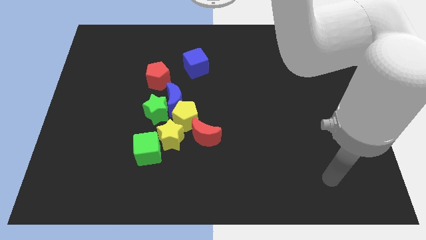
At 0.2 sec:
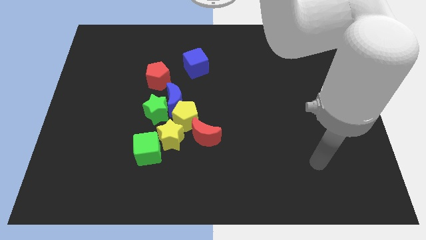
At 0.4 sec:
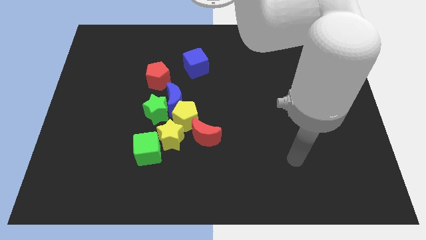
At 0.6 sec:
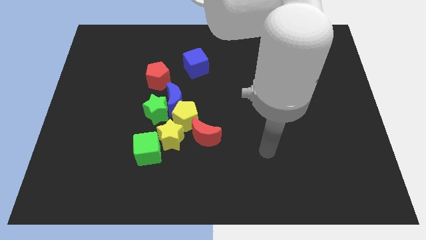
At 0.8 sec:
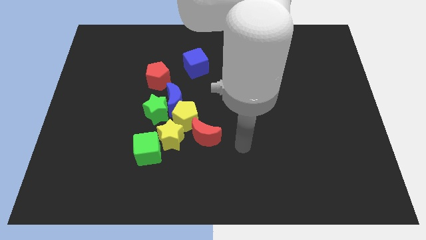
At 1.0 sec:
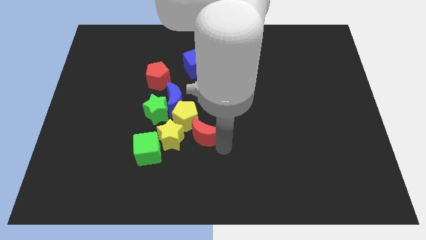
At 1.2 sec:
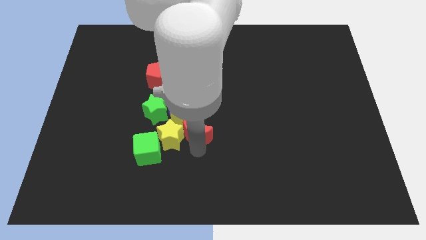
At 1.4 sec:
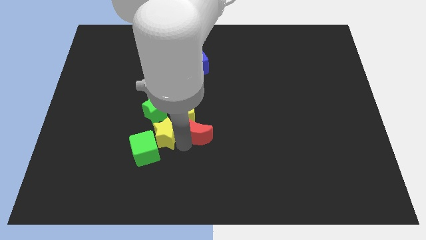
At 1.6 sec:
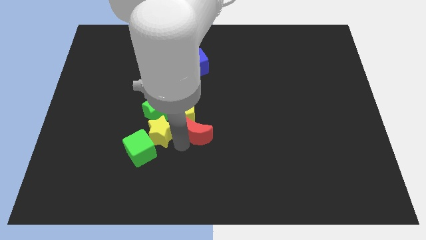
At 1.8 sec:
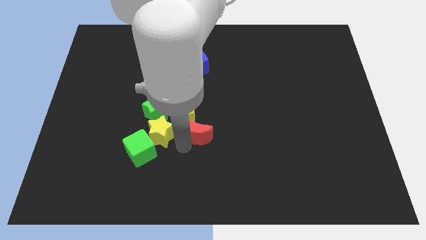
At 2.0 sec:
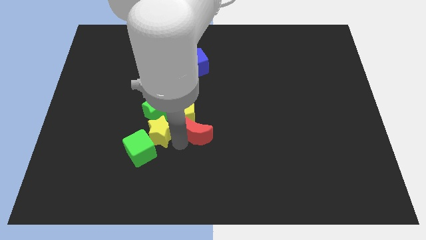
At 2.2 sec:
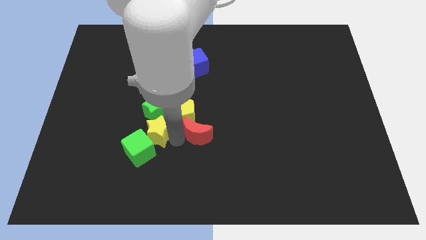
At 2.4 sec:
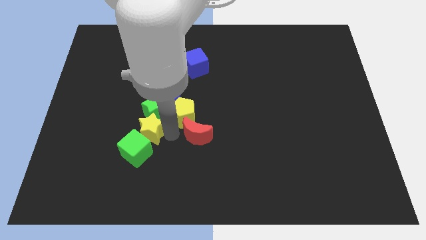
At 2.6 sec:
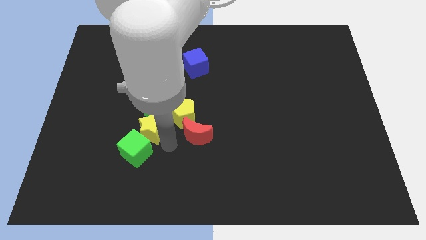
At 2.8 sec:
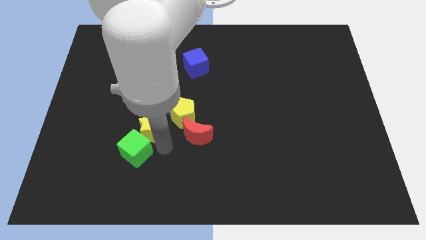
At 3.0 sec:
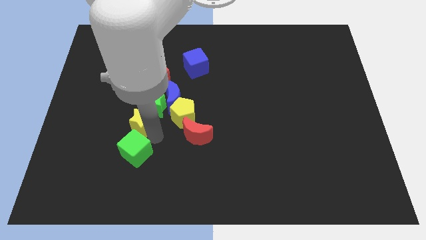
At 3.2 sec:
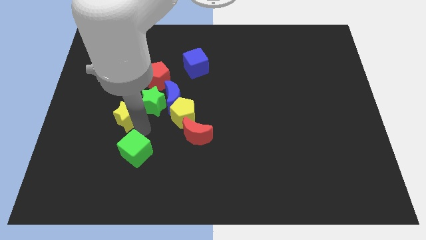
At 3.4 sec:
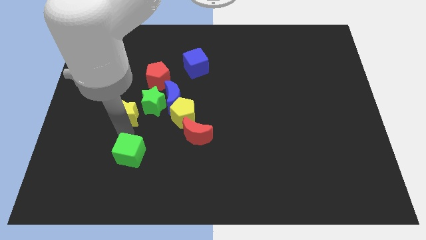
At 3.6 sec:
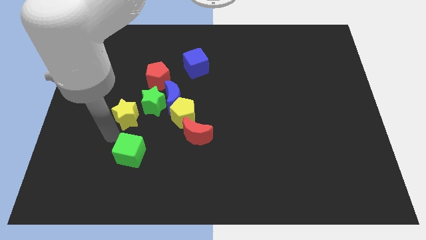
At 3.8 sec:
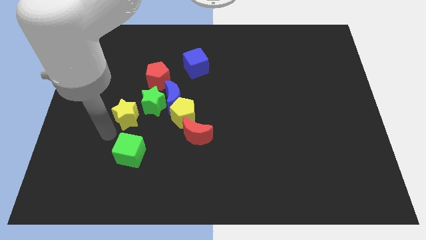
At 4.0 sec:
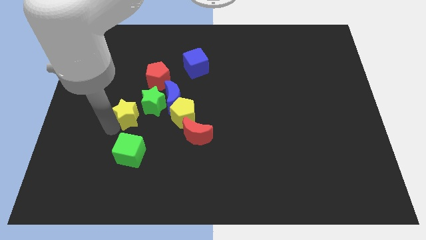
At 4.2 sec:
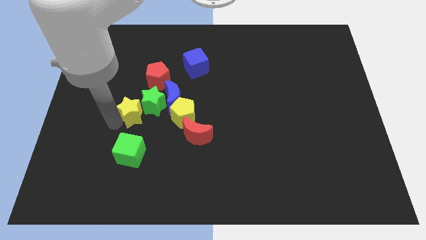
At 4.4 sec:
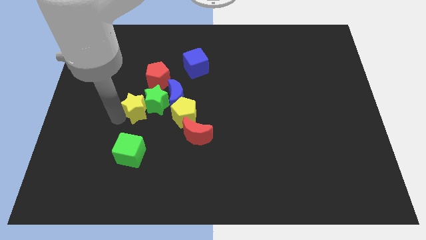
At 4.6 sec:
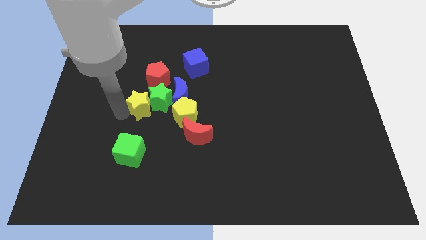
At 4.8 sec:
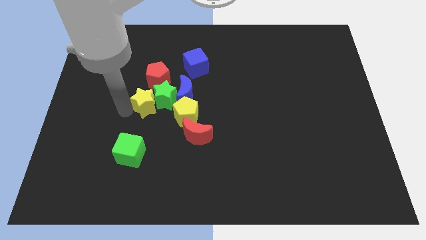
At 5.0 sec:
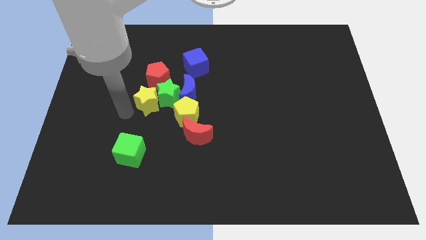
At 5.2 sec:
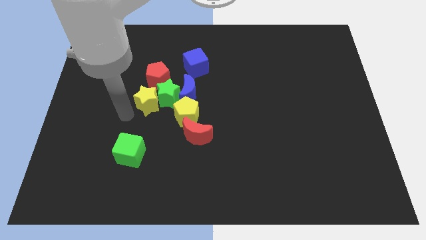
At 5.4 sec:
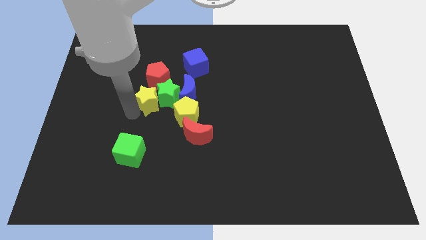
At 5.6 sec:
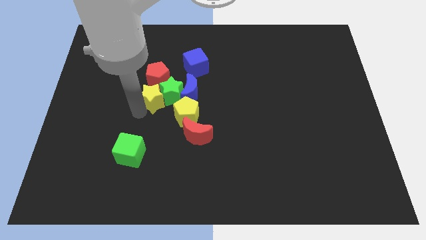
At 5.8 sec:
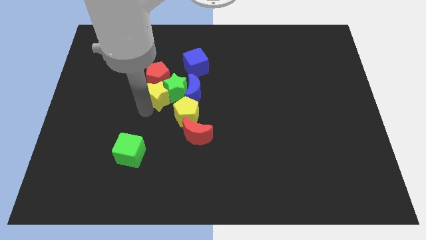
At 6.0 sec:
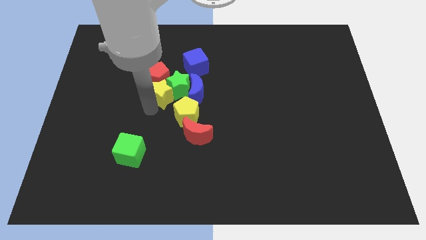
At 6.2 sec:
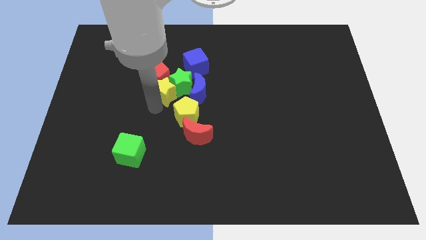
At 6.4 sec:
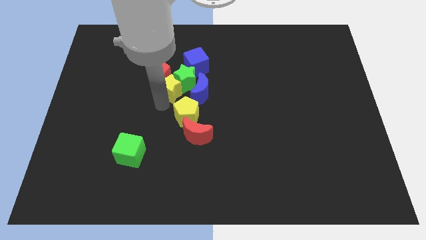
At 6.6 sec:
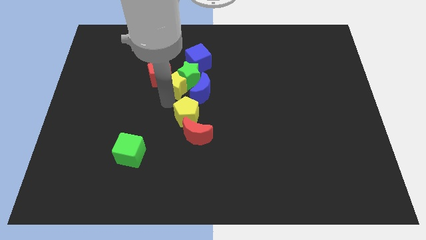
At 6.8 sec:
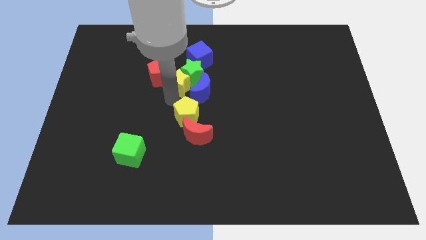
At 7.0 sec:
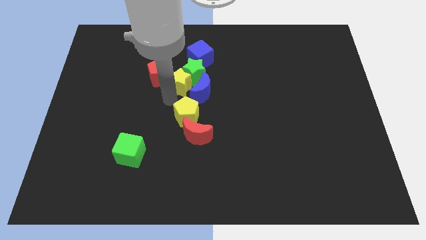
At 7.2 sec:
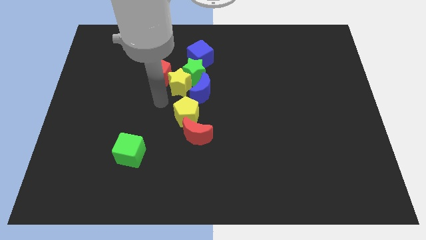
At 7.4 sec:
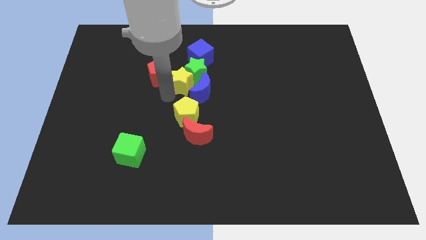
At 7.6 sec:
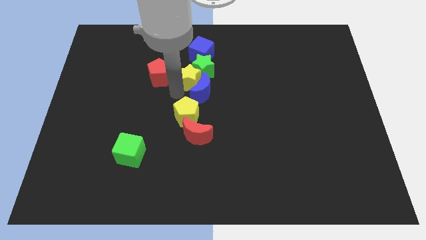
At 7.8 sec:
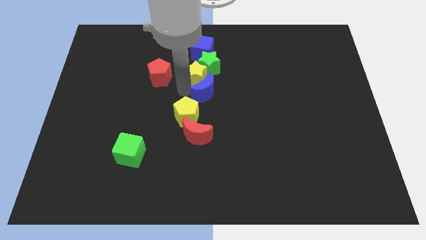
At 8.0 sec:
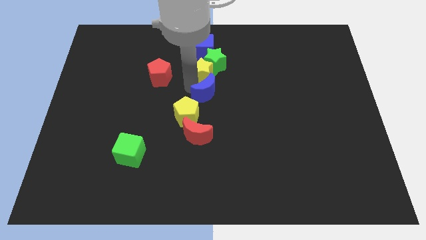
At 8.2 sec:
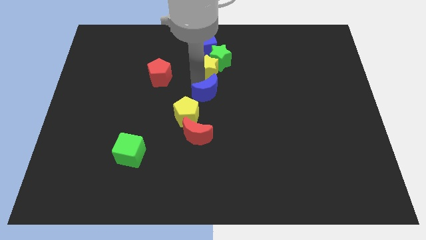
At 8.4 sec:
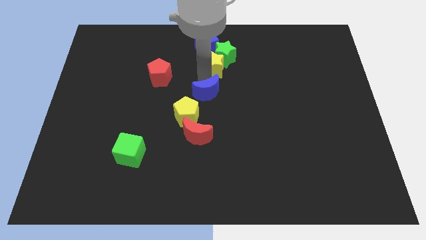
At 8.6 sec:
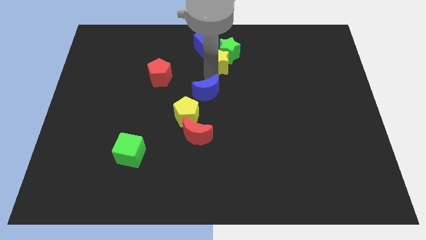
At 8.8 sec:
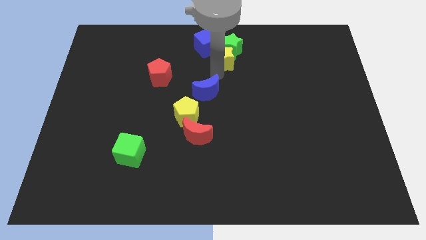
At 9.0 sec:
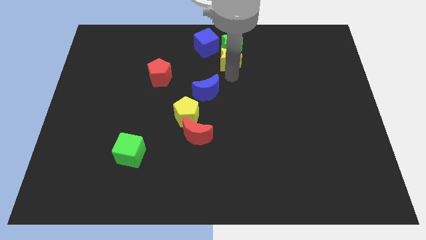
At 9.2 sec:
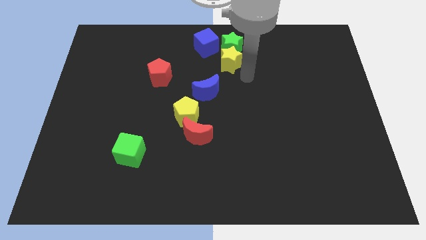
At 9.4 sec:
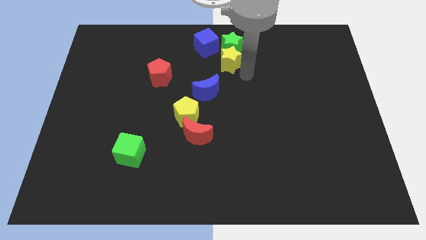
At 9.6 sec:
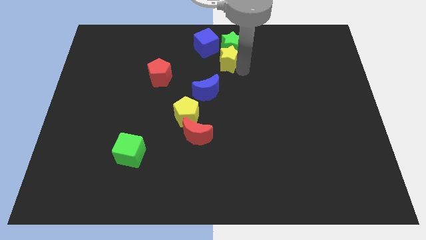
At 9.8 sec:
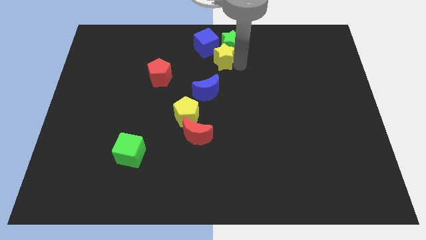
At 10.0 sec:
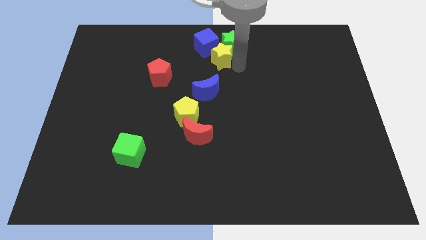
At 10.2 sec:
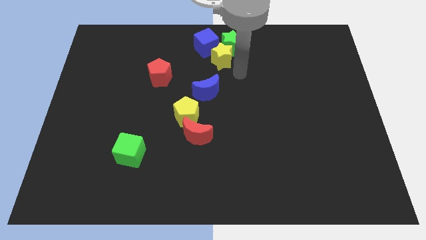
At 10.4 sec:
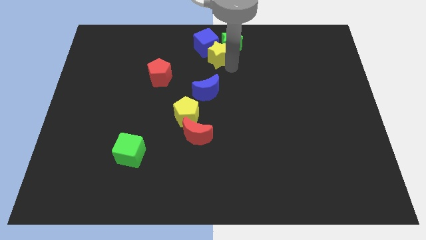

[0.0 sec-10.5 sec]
move the yellow star close to the blue cube

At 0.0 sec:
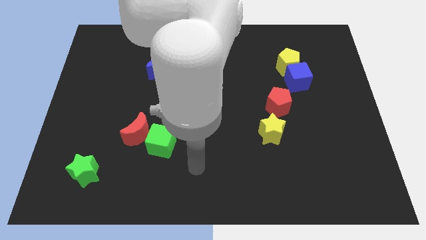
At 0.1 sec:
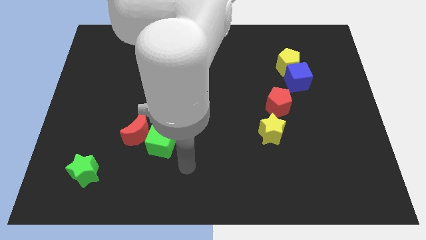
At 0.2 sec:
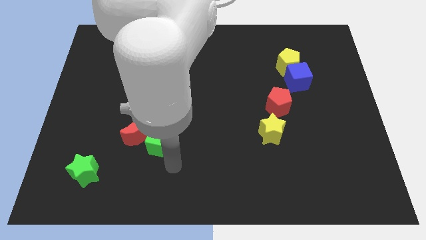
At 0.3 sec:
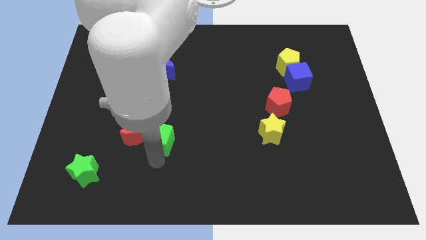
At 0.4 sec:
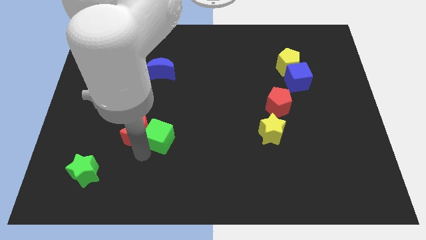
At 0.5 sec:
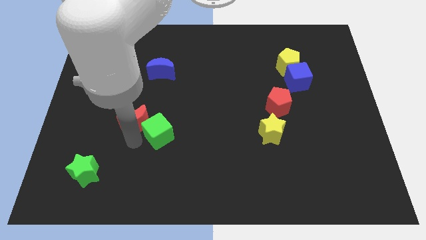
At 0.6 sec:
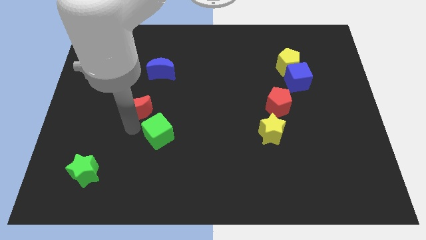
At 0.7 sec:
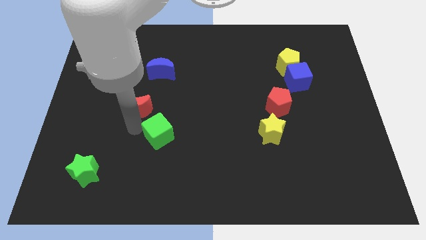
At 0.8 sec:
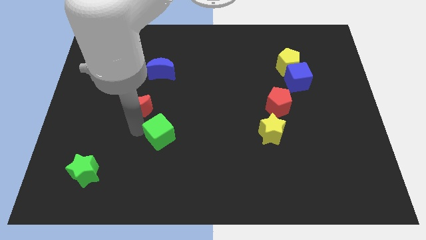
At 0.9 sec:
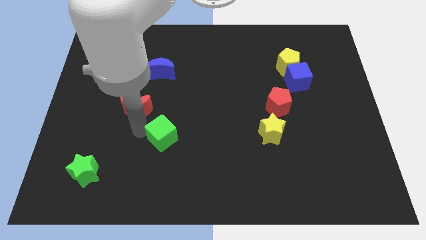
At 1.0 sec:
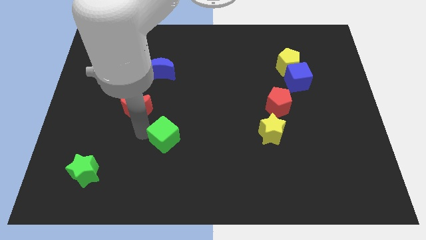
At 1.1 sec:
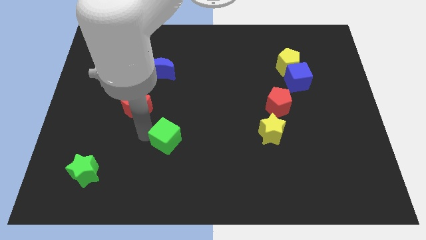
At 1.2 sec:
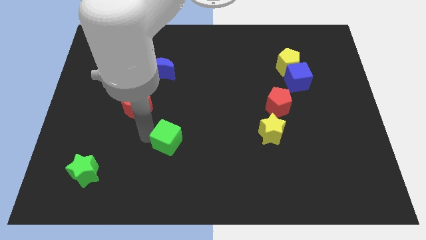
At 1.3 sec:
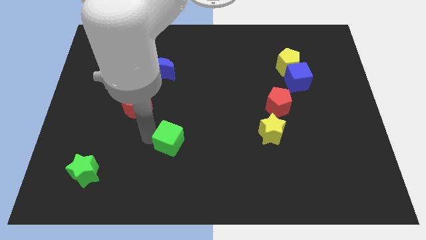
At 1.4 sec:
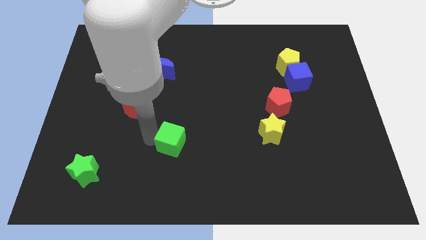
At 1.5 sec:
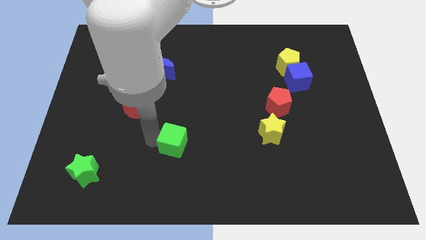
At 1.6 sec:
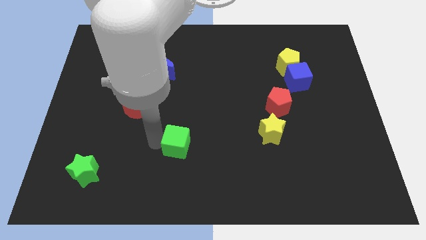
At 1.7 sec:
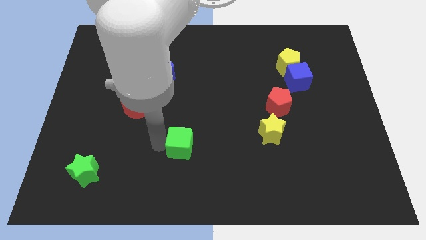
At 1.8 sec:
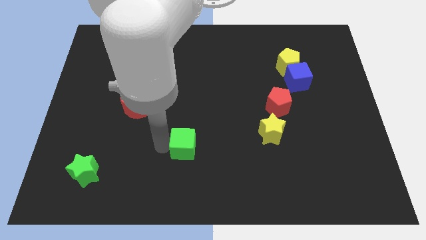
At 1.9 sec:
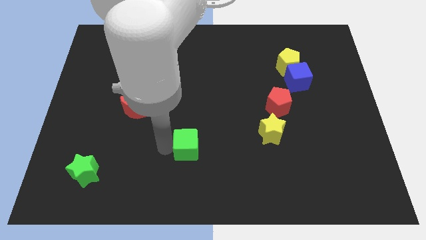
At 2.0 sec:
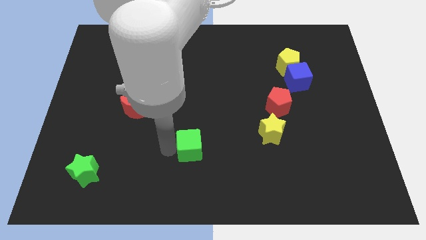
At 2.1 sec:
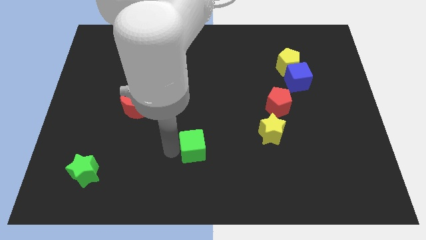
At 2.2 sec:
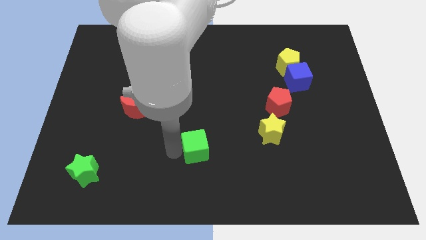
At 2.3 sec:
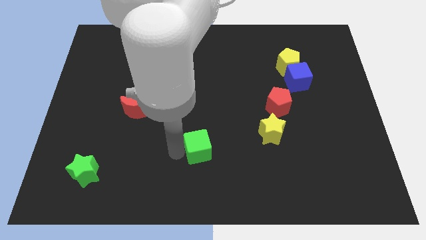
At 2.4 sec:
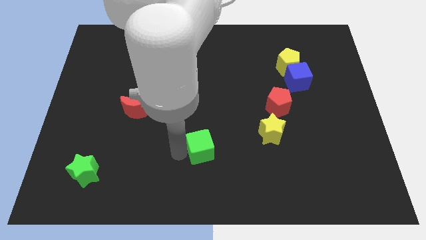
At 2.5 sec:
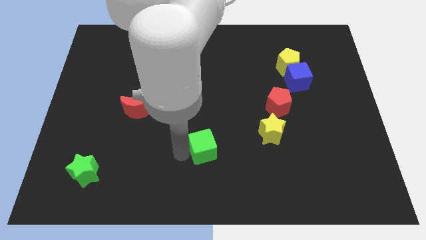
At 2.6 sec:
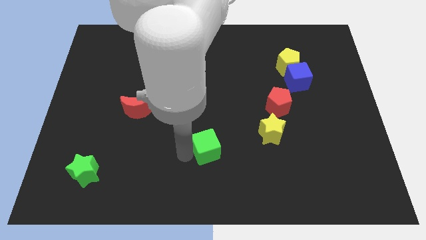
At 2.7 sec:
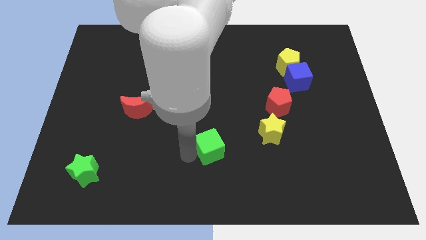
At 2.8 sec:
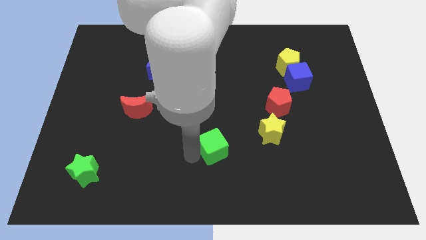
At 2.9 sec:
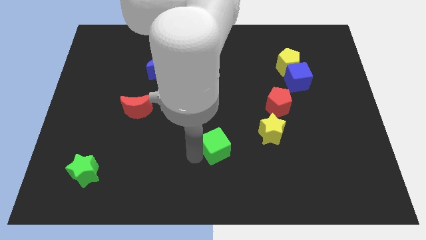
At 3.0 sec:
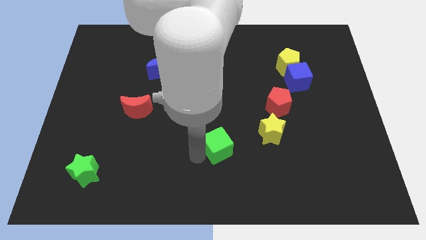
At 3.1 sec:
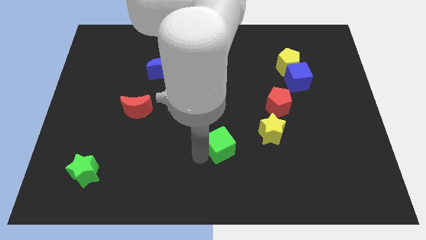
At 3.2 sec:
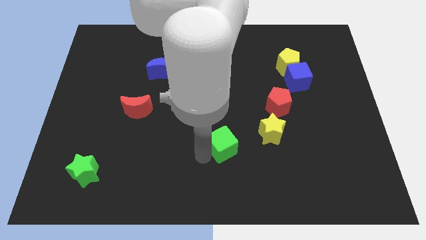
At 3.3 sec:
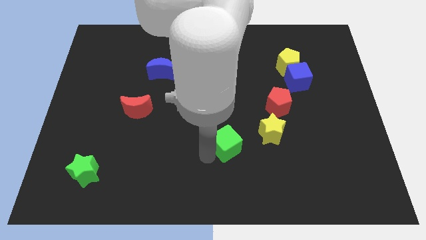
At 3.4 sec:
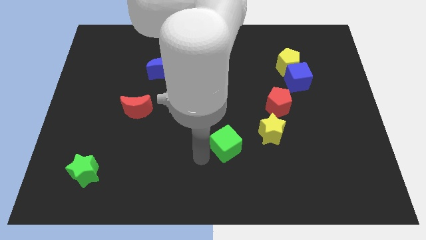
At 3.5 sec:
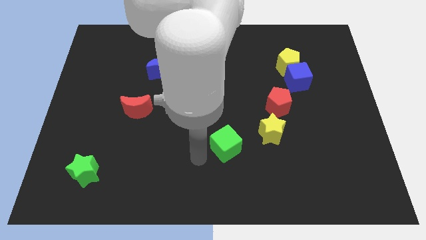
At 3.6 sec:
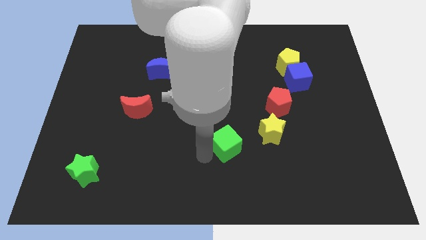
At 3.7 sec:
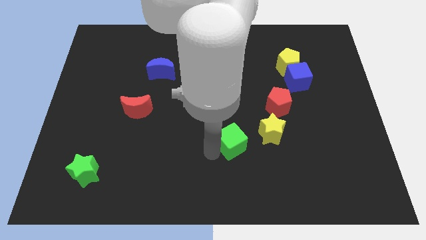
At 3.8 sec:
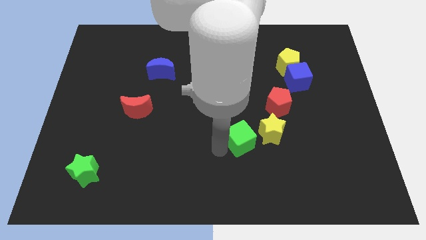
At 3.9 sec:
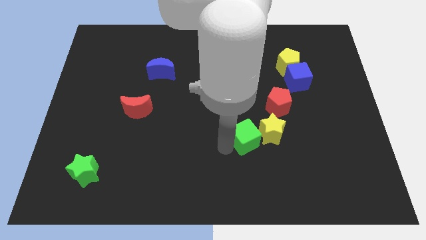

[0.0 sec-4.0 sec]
slide the green cube towards the yellow star
